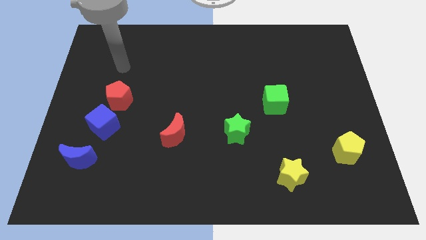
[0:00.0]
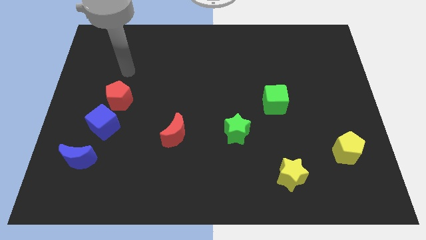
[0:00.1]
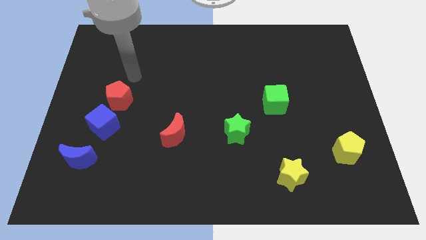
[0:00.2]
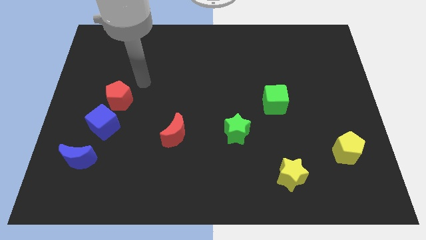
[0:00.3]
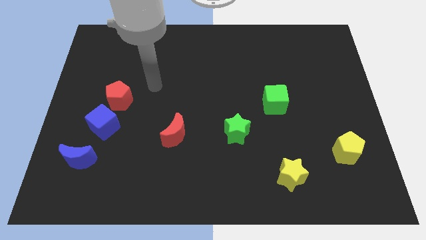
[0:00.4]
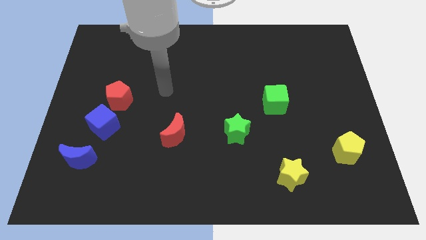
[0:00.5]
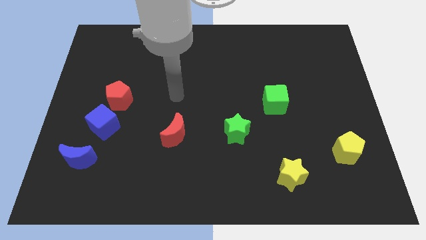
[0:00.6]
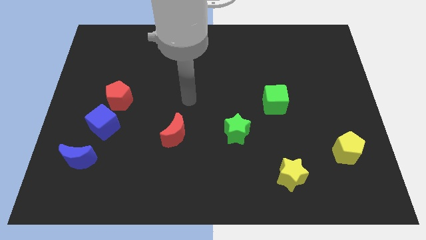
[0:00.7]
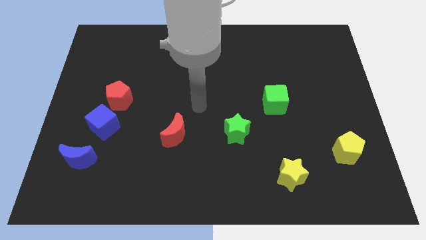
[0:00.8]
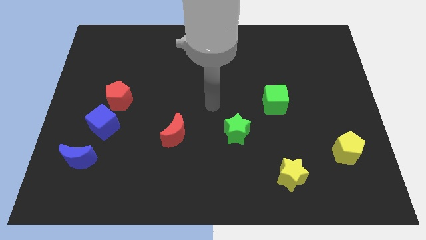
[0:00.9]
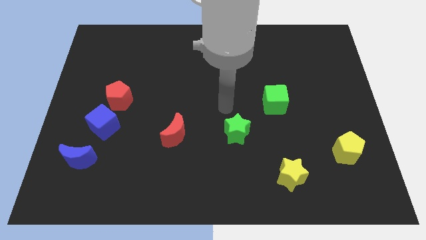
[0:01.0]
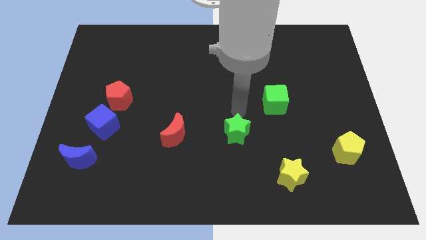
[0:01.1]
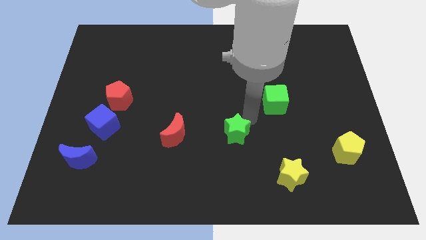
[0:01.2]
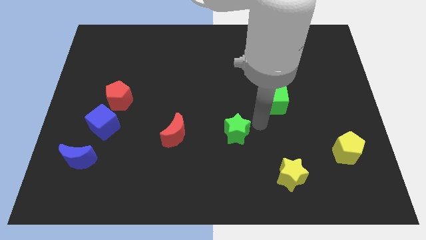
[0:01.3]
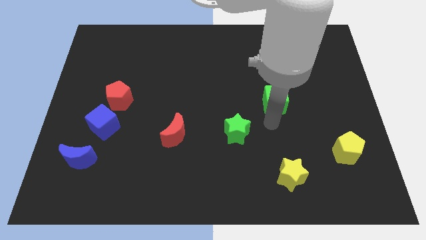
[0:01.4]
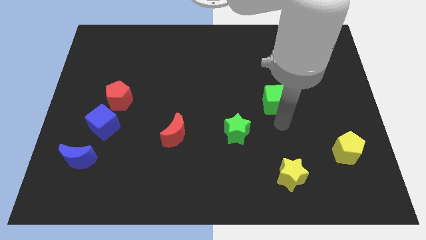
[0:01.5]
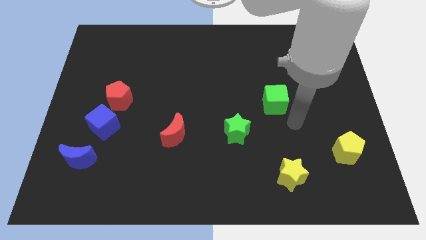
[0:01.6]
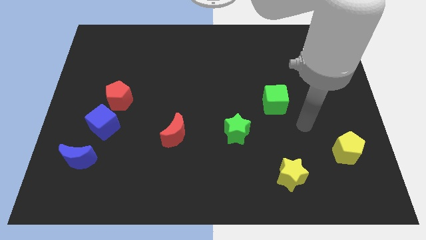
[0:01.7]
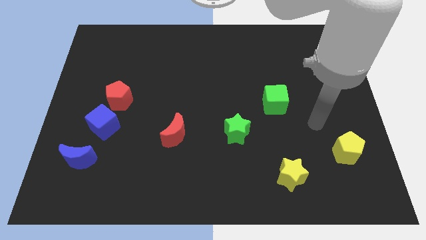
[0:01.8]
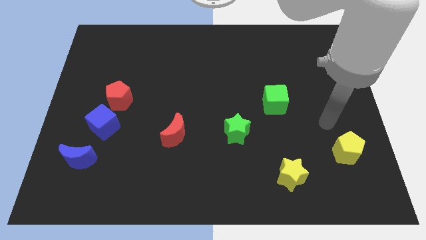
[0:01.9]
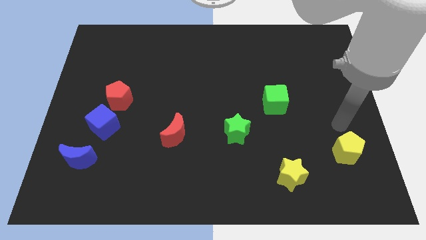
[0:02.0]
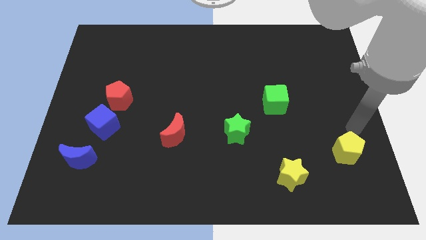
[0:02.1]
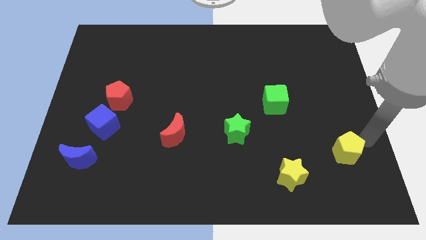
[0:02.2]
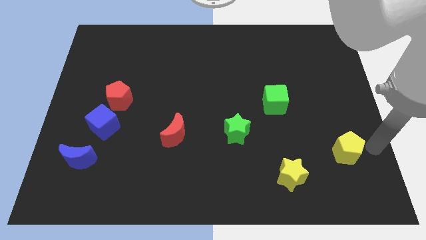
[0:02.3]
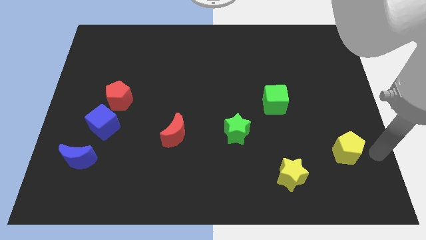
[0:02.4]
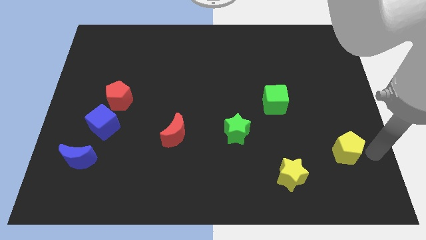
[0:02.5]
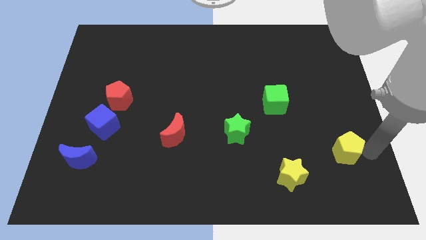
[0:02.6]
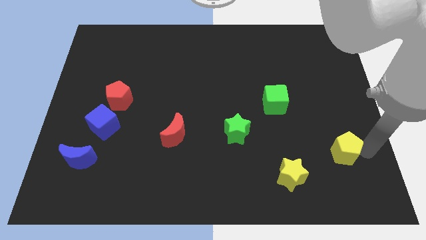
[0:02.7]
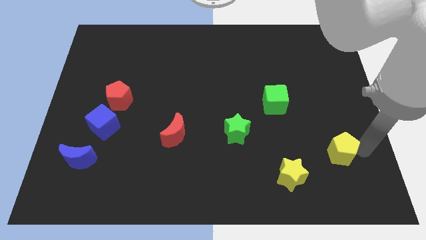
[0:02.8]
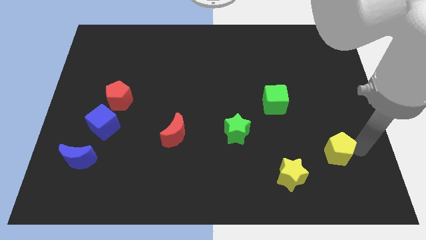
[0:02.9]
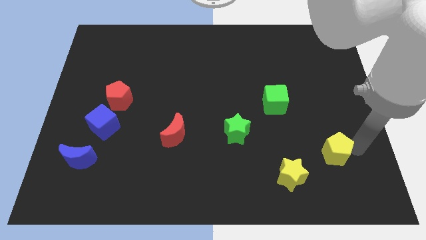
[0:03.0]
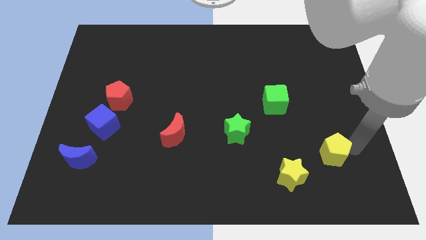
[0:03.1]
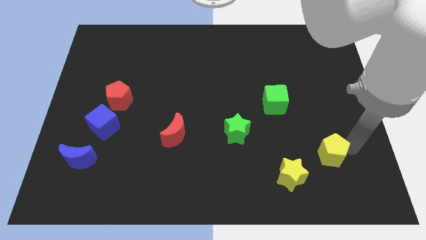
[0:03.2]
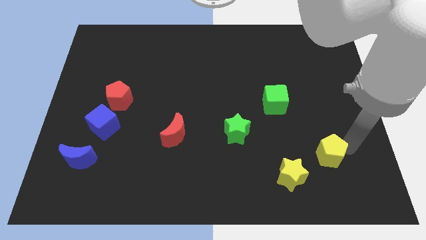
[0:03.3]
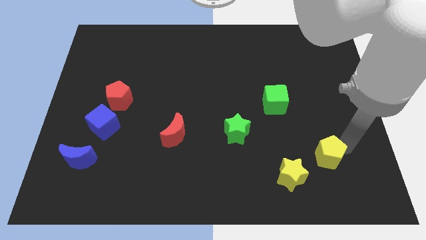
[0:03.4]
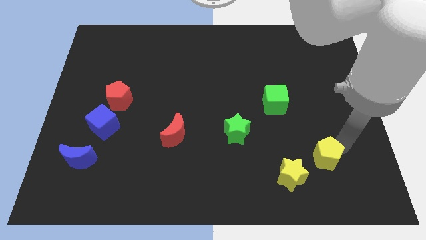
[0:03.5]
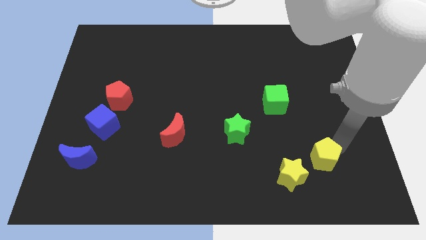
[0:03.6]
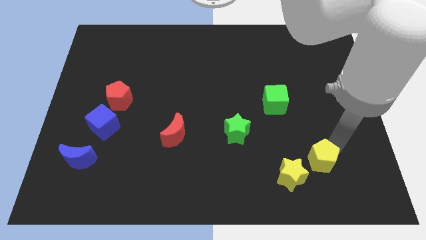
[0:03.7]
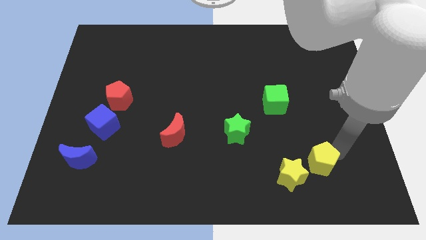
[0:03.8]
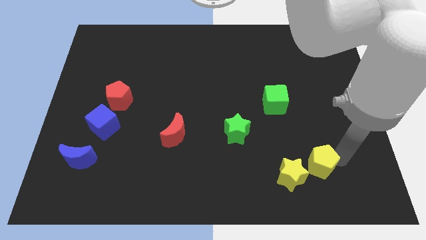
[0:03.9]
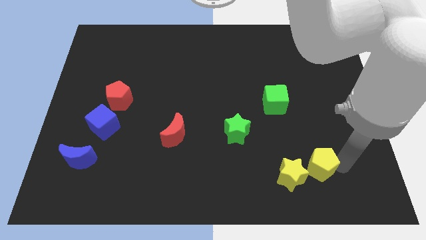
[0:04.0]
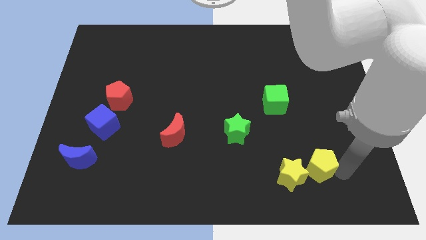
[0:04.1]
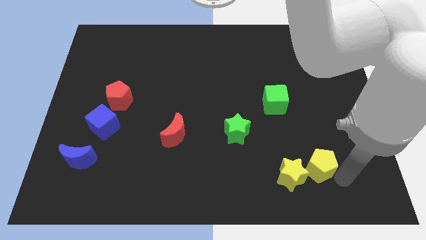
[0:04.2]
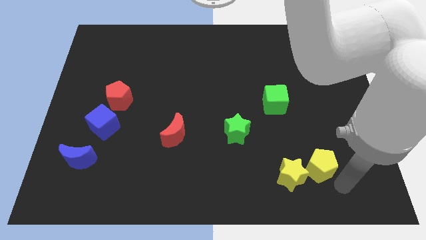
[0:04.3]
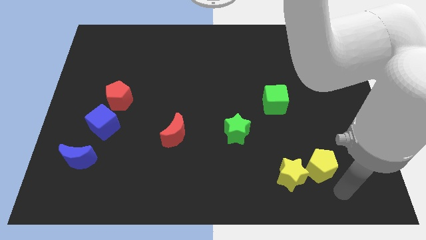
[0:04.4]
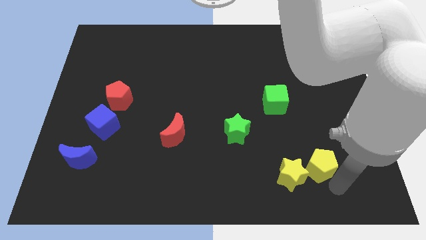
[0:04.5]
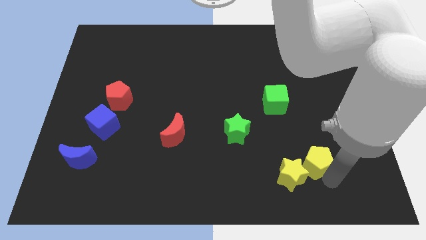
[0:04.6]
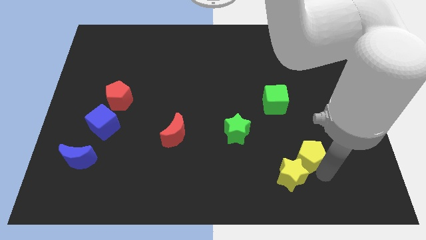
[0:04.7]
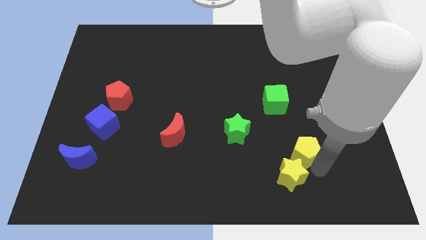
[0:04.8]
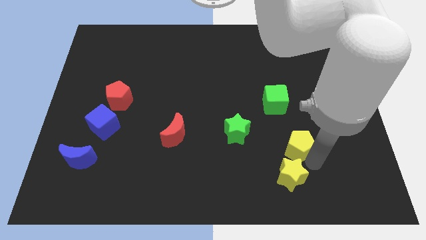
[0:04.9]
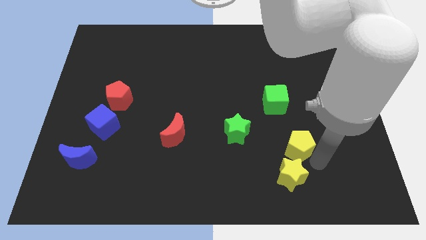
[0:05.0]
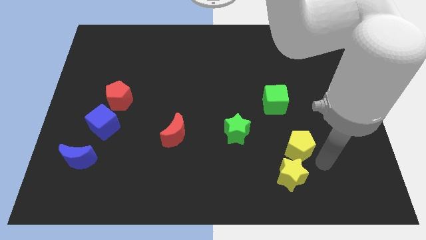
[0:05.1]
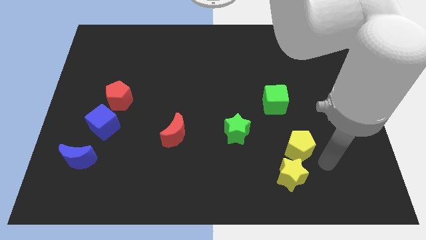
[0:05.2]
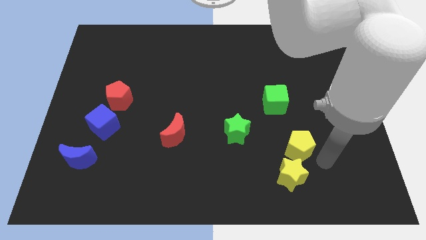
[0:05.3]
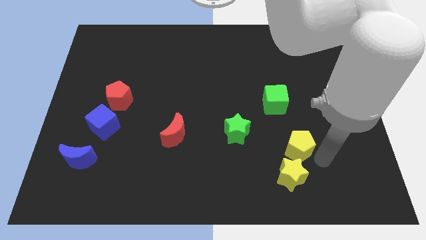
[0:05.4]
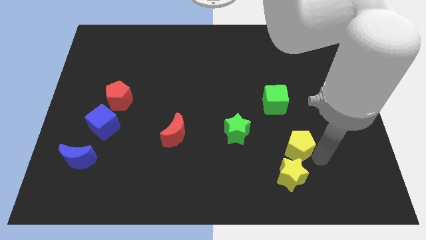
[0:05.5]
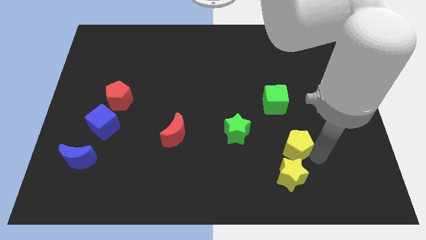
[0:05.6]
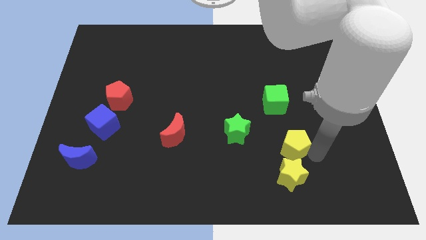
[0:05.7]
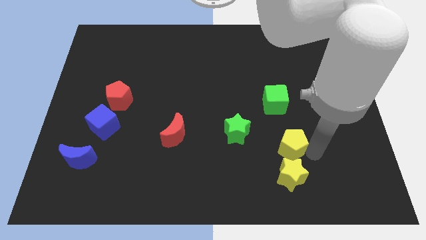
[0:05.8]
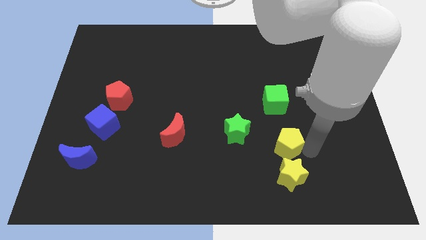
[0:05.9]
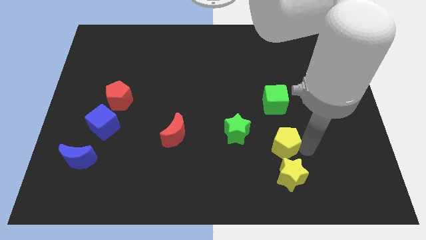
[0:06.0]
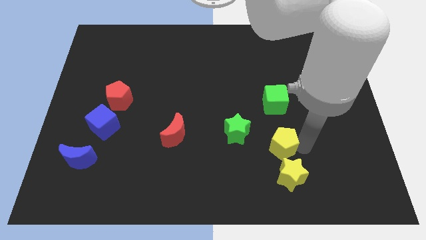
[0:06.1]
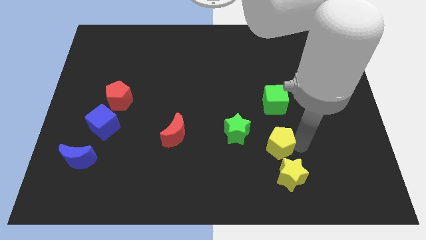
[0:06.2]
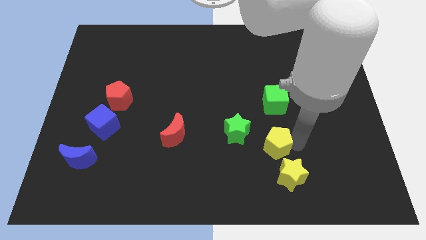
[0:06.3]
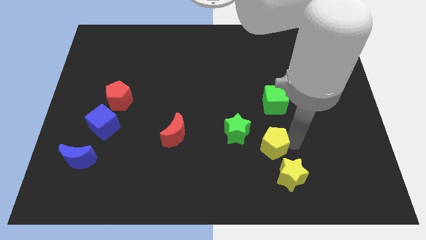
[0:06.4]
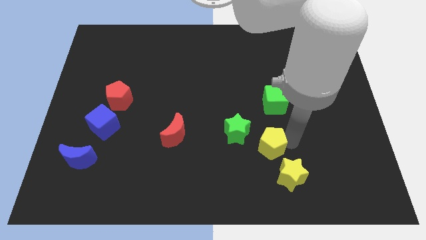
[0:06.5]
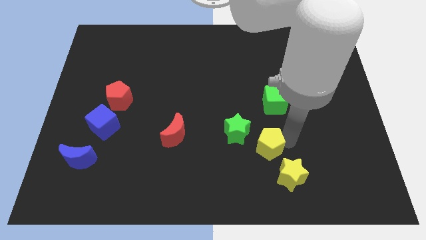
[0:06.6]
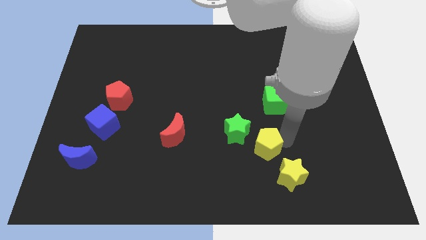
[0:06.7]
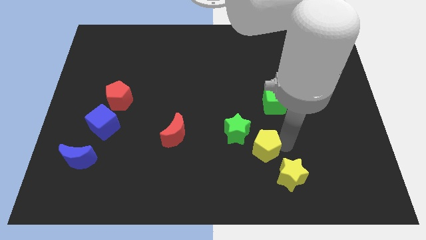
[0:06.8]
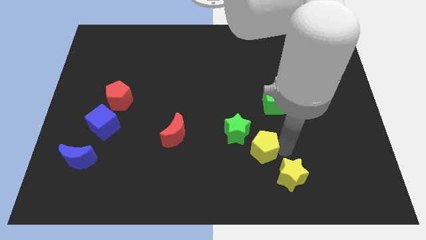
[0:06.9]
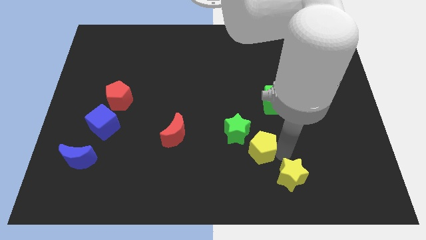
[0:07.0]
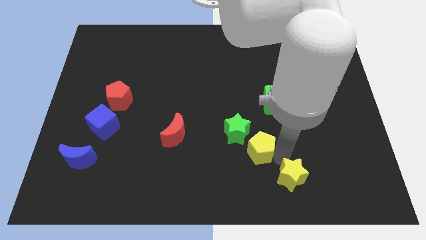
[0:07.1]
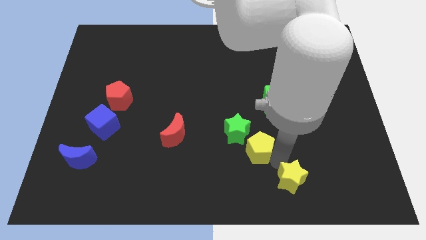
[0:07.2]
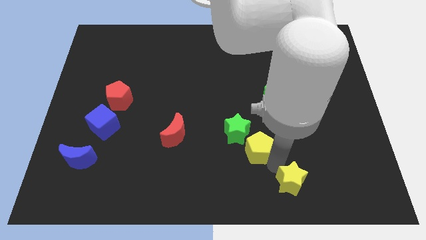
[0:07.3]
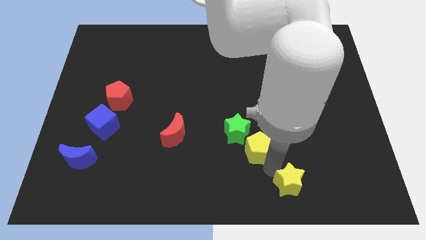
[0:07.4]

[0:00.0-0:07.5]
move the yellow pentagon towards the green star
